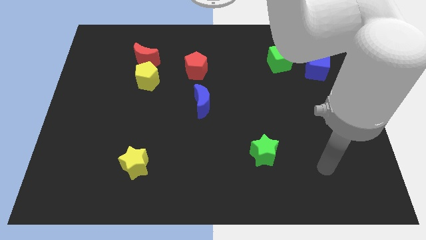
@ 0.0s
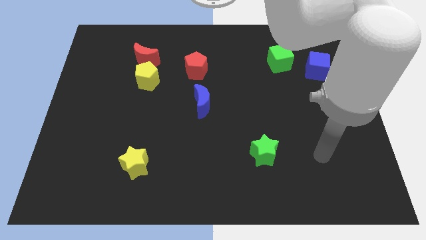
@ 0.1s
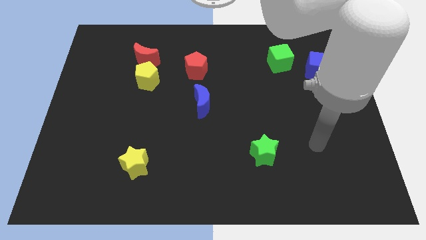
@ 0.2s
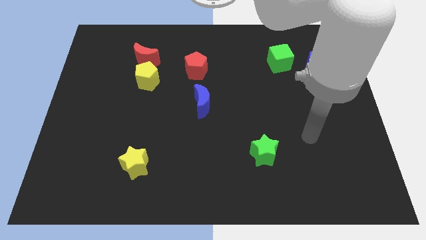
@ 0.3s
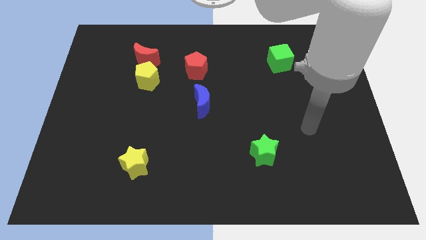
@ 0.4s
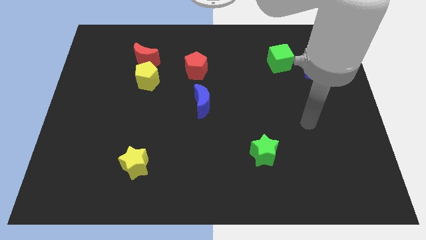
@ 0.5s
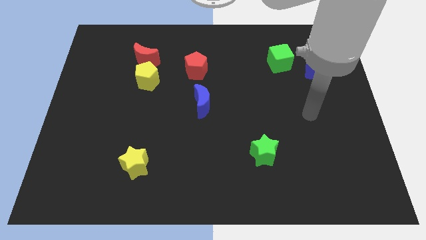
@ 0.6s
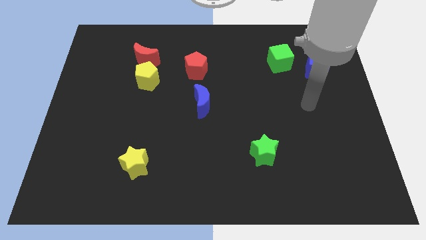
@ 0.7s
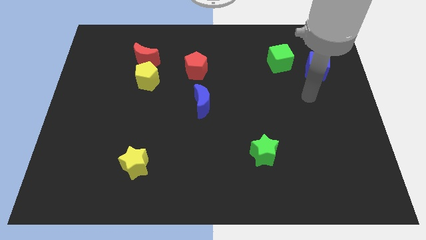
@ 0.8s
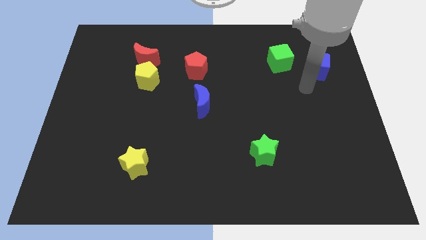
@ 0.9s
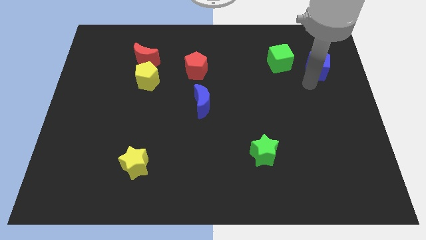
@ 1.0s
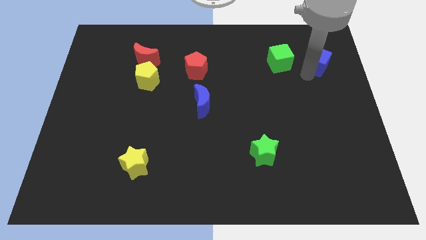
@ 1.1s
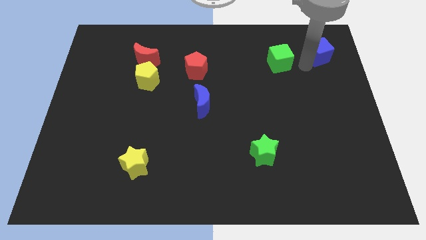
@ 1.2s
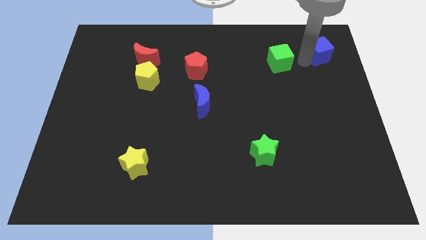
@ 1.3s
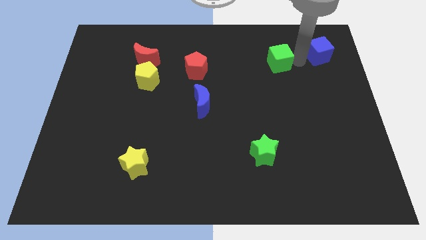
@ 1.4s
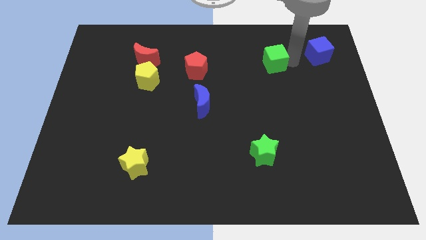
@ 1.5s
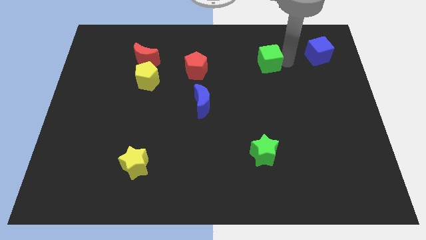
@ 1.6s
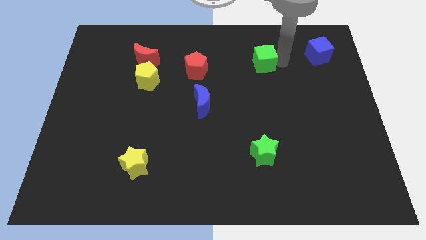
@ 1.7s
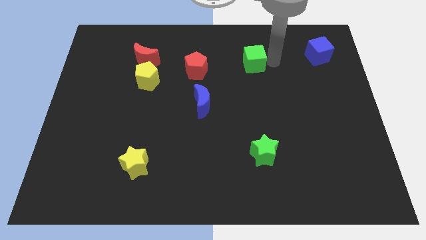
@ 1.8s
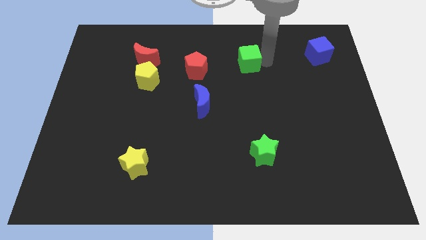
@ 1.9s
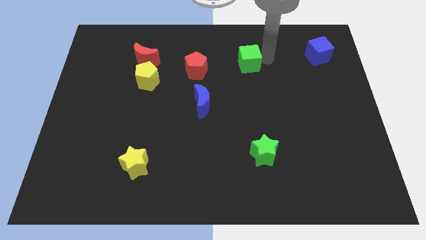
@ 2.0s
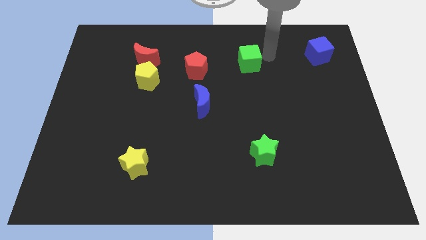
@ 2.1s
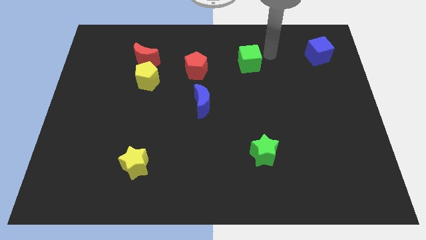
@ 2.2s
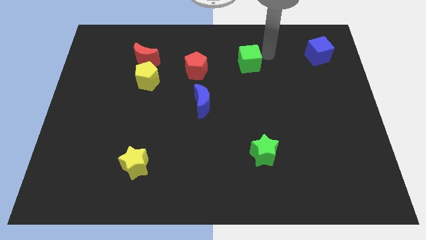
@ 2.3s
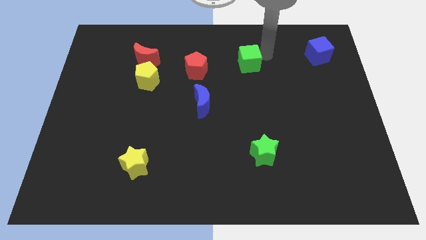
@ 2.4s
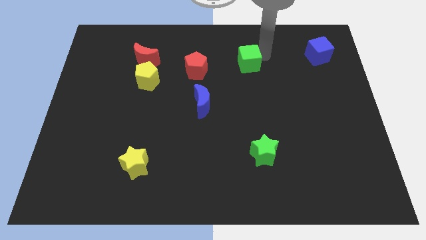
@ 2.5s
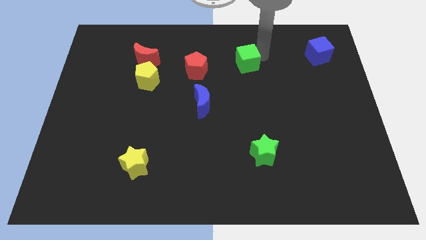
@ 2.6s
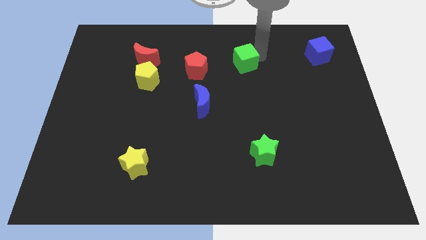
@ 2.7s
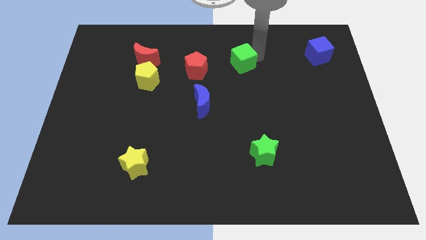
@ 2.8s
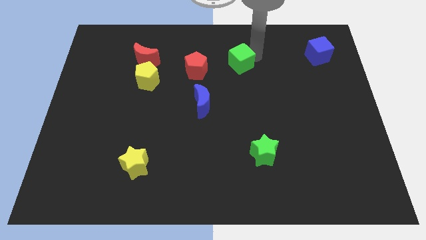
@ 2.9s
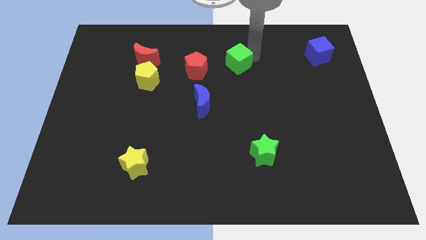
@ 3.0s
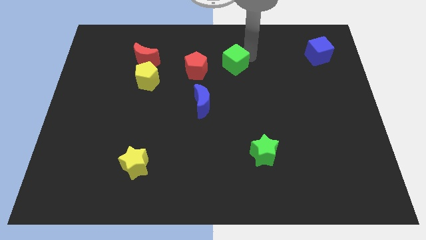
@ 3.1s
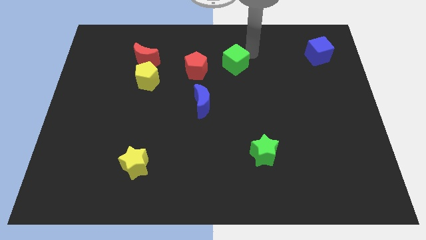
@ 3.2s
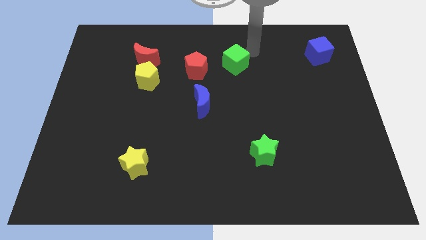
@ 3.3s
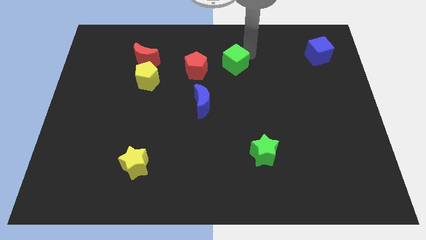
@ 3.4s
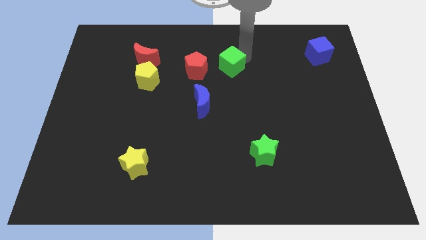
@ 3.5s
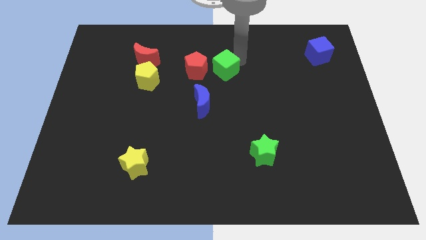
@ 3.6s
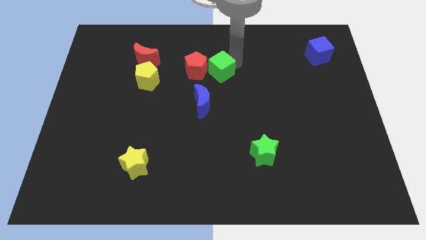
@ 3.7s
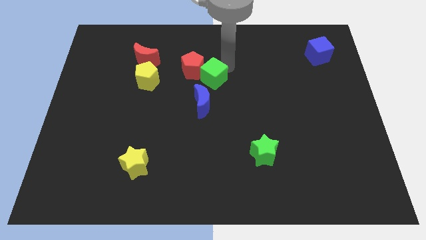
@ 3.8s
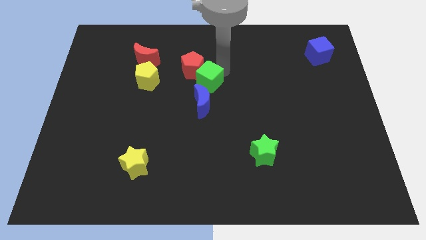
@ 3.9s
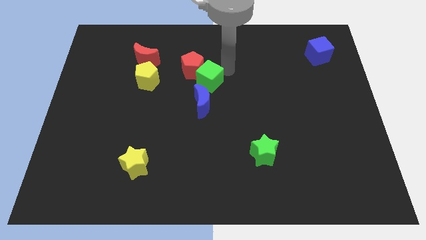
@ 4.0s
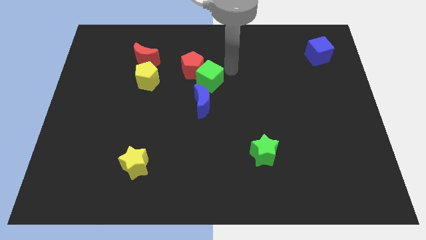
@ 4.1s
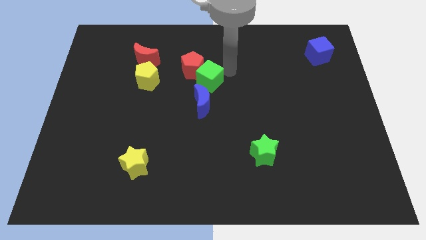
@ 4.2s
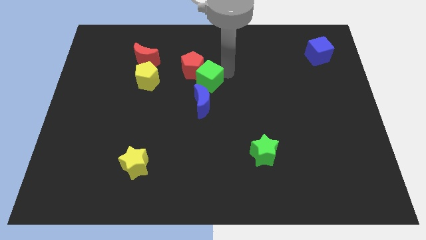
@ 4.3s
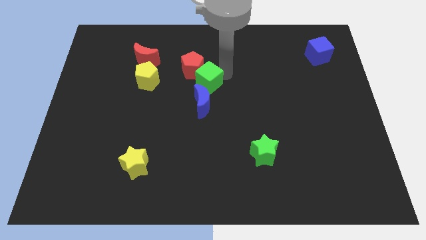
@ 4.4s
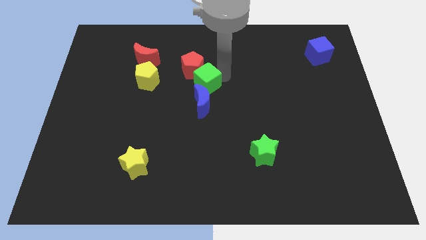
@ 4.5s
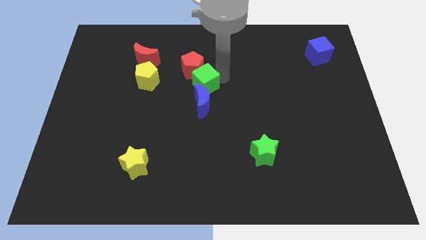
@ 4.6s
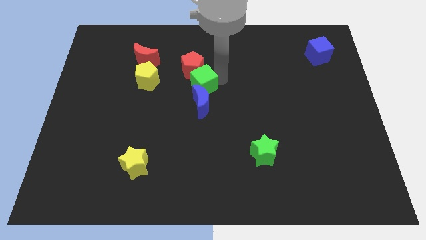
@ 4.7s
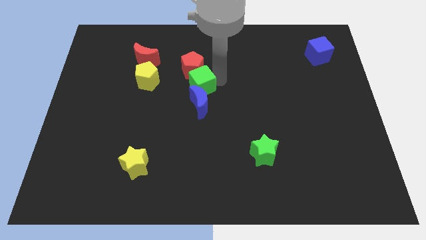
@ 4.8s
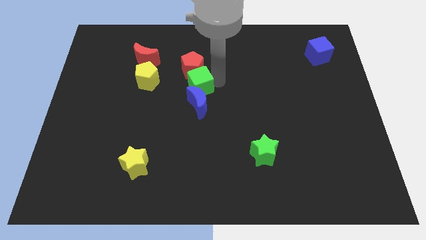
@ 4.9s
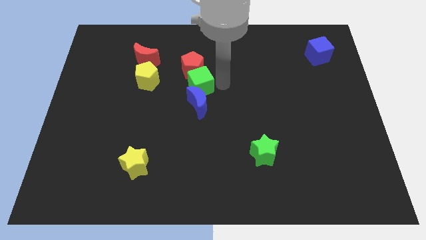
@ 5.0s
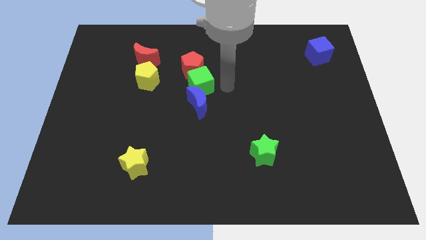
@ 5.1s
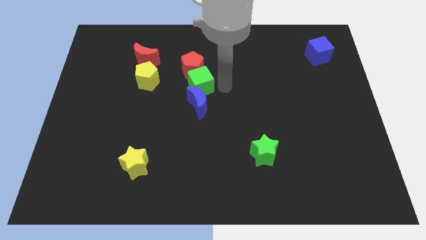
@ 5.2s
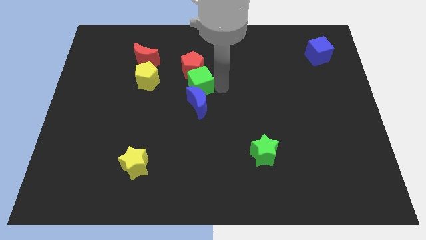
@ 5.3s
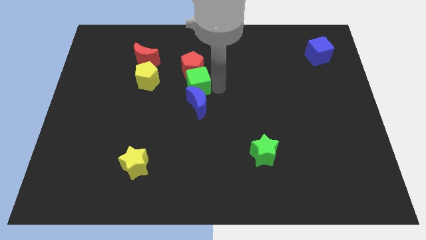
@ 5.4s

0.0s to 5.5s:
put the green cube diagonally down and to the left of the red pentagon
